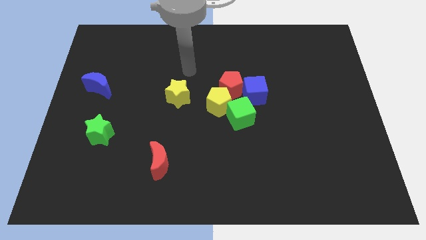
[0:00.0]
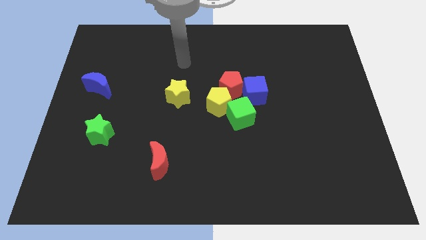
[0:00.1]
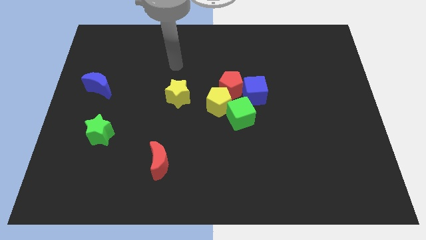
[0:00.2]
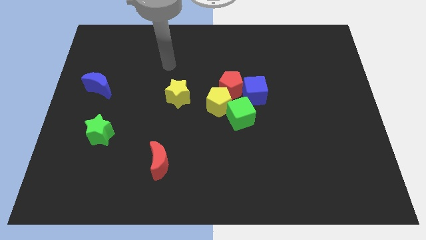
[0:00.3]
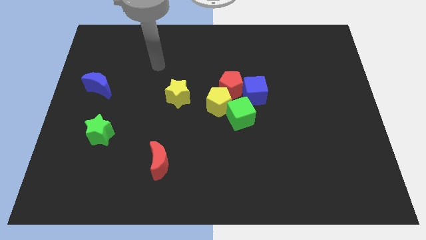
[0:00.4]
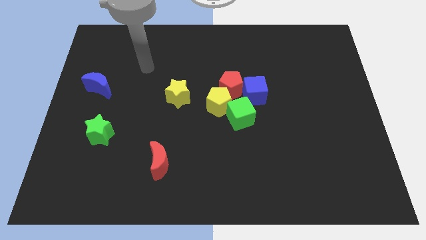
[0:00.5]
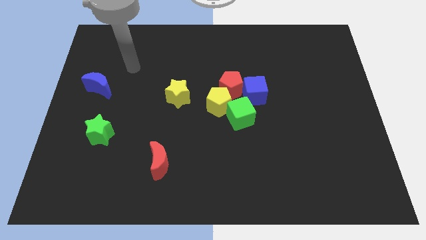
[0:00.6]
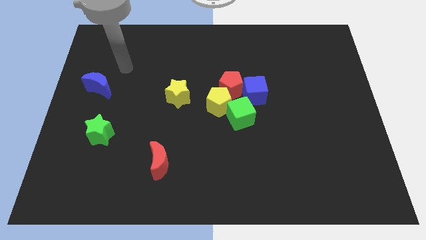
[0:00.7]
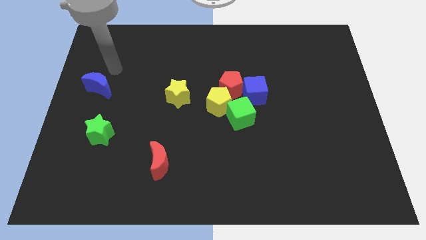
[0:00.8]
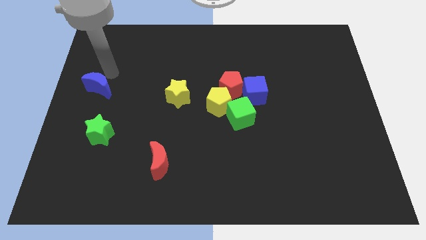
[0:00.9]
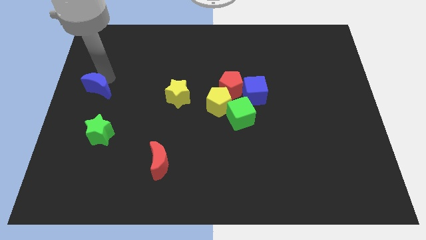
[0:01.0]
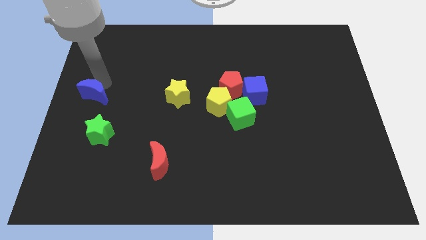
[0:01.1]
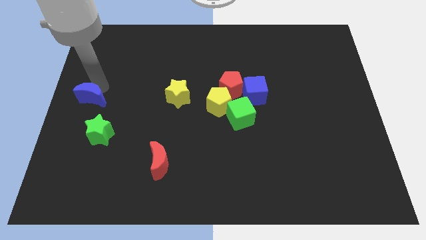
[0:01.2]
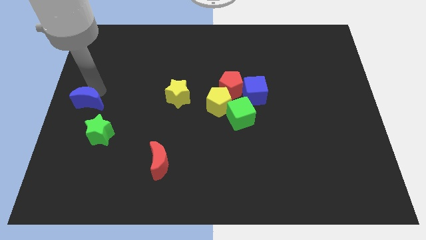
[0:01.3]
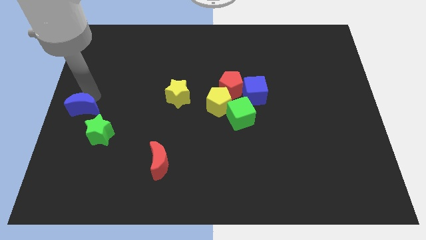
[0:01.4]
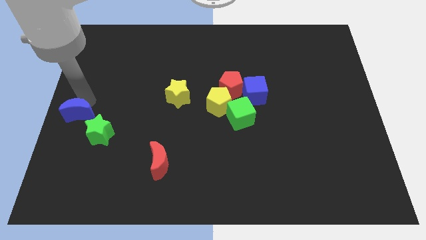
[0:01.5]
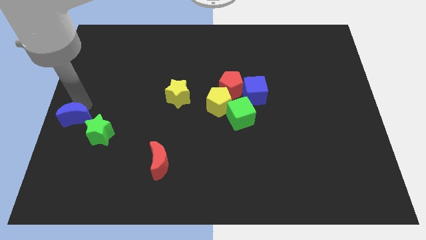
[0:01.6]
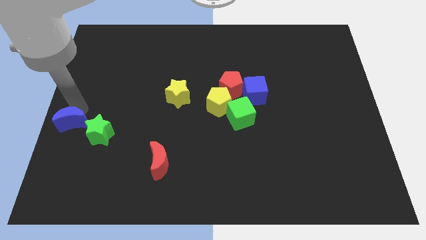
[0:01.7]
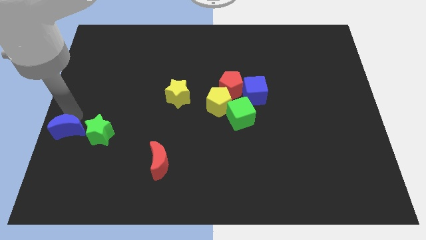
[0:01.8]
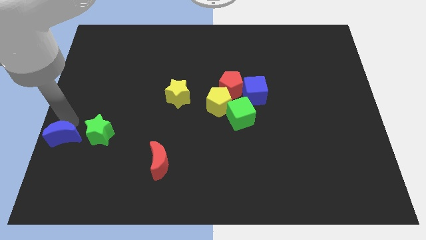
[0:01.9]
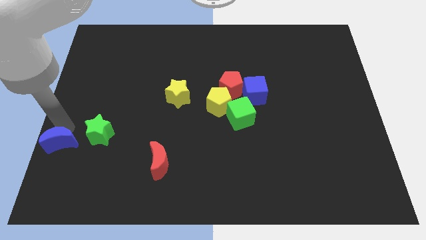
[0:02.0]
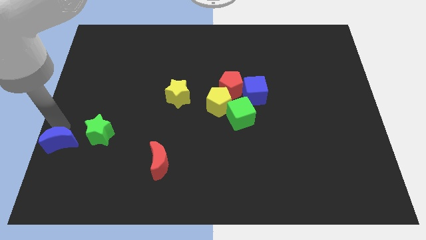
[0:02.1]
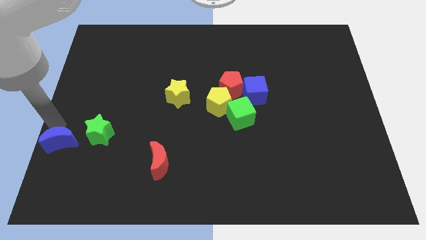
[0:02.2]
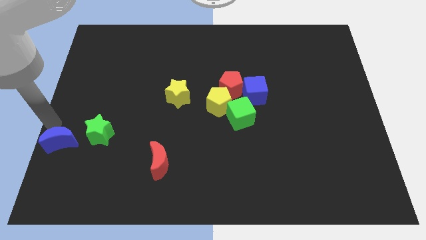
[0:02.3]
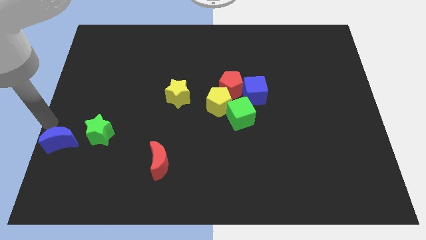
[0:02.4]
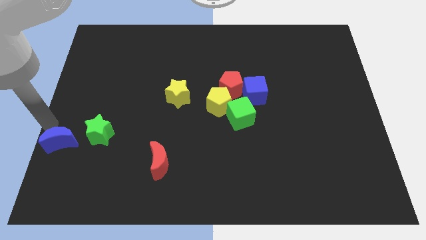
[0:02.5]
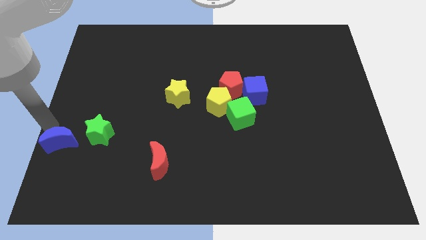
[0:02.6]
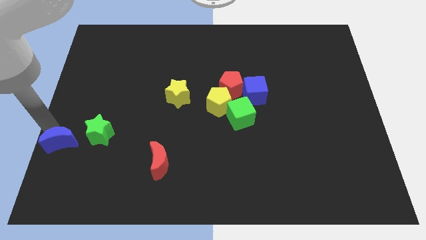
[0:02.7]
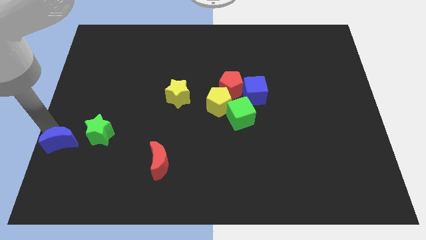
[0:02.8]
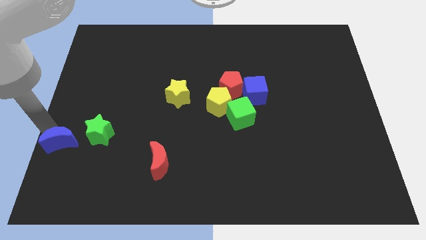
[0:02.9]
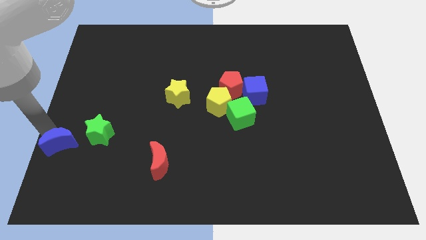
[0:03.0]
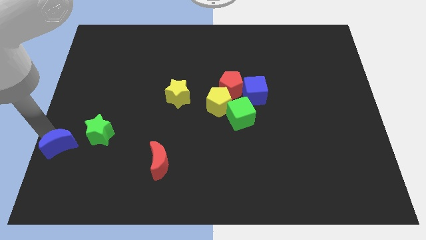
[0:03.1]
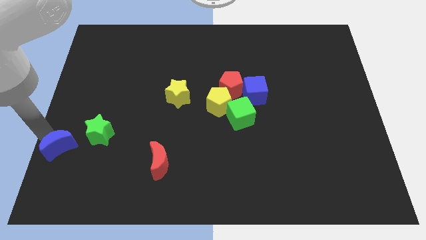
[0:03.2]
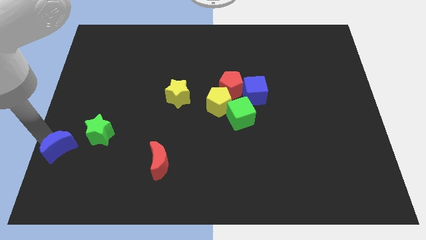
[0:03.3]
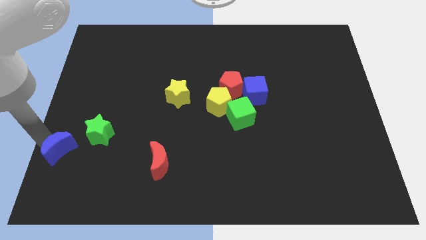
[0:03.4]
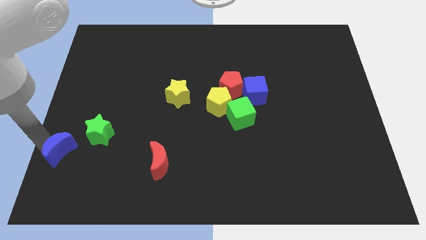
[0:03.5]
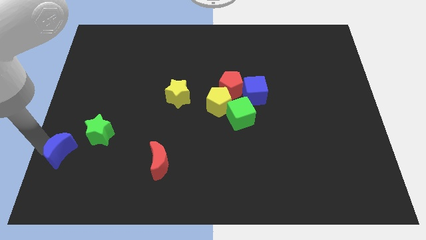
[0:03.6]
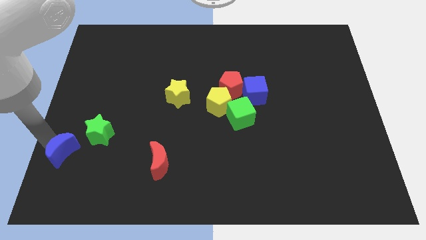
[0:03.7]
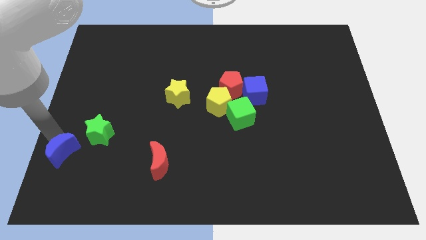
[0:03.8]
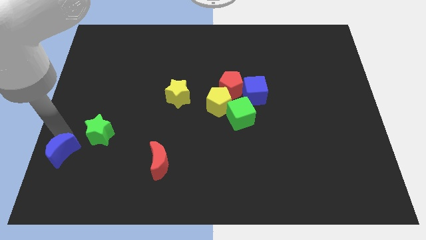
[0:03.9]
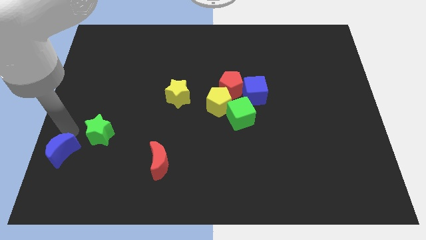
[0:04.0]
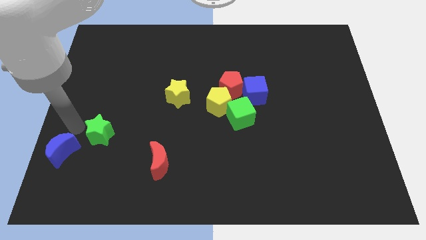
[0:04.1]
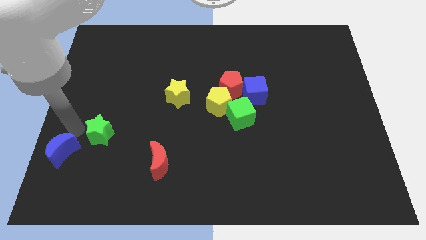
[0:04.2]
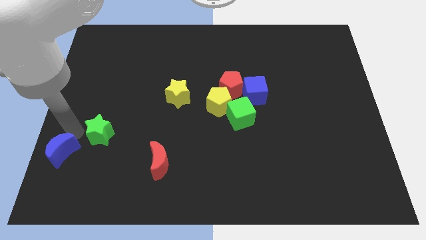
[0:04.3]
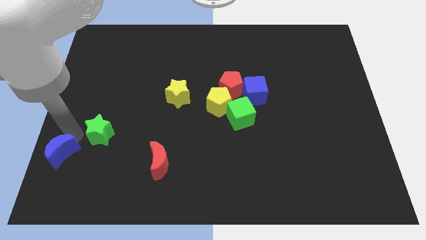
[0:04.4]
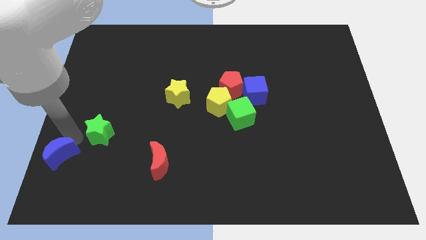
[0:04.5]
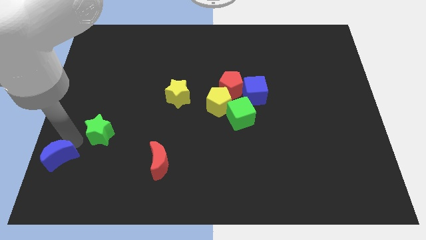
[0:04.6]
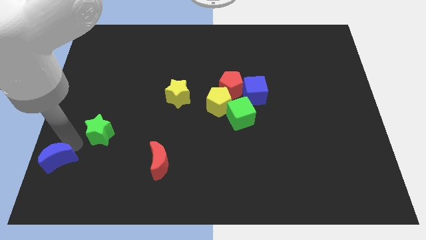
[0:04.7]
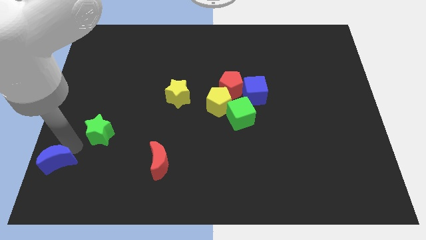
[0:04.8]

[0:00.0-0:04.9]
move the blue moon to the lower left corner

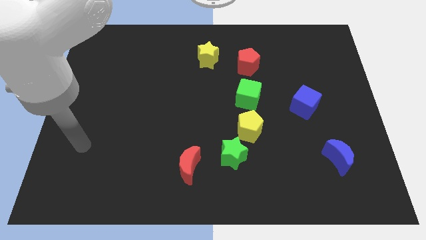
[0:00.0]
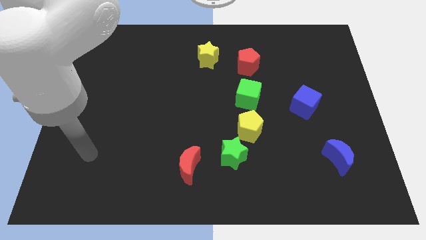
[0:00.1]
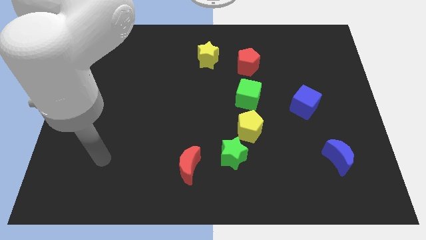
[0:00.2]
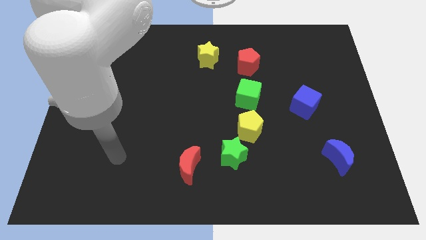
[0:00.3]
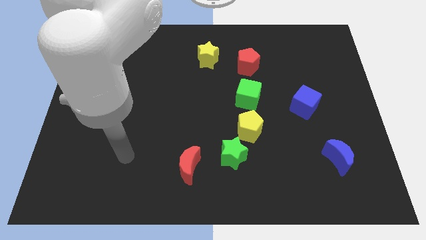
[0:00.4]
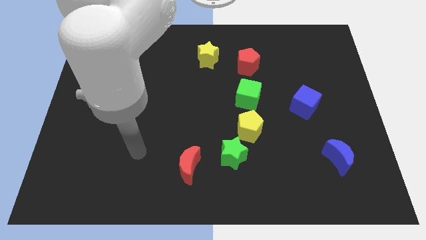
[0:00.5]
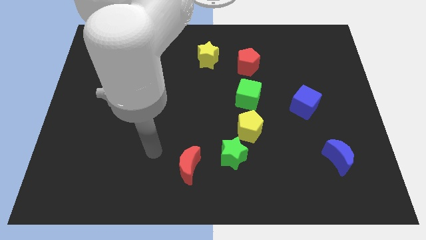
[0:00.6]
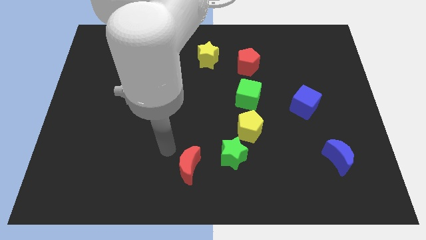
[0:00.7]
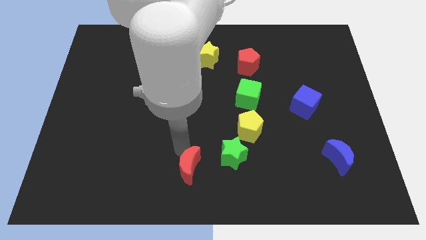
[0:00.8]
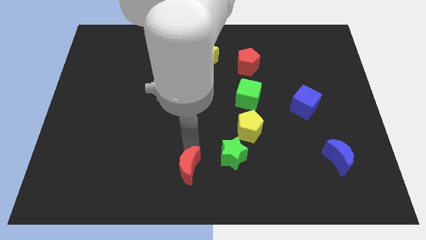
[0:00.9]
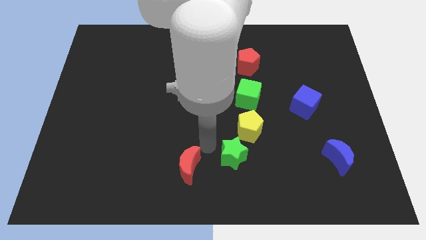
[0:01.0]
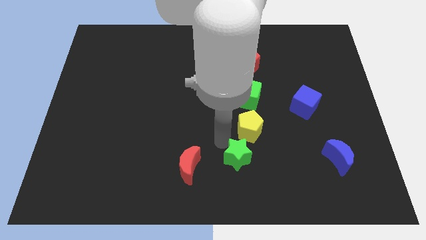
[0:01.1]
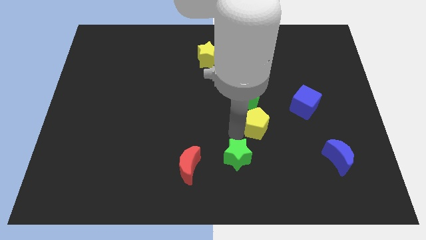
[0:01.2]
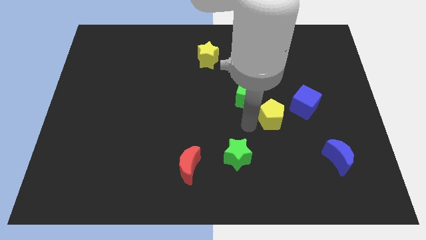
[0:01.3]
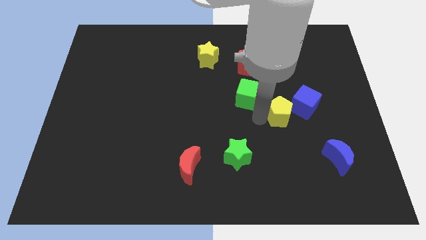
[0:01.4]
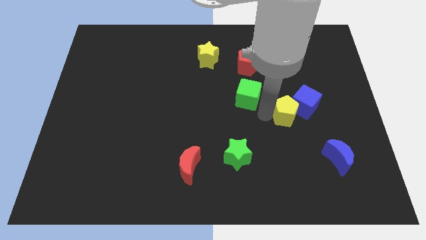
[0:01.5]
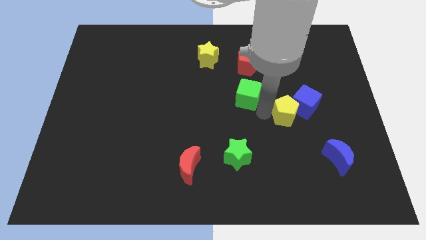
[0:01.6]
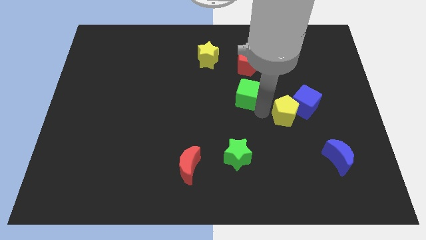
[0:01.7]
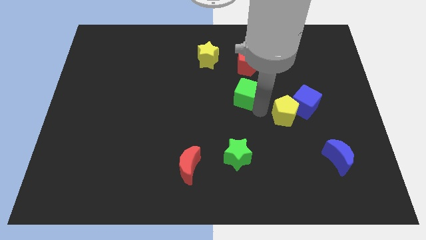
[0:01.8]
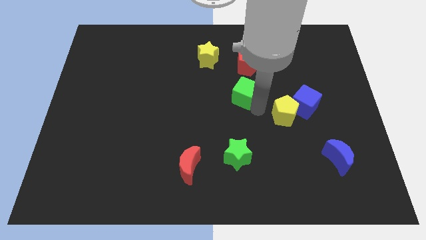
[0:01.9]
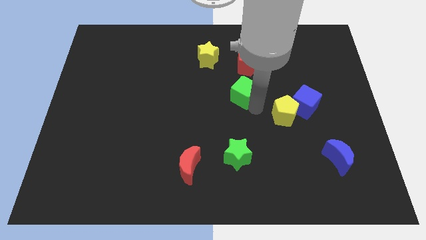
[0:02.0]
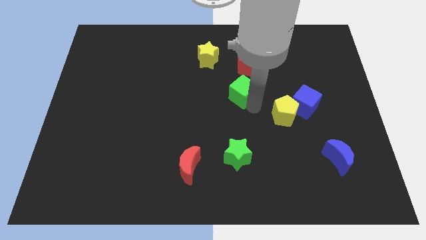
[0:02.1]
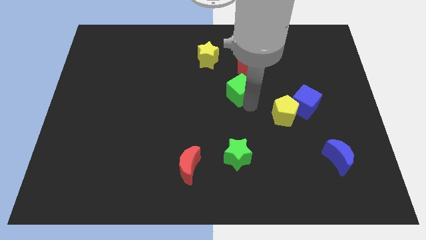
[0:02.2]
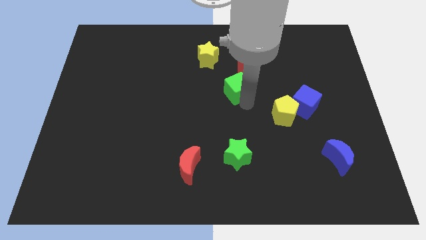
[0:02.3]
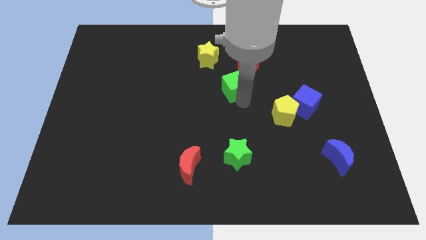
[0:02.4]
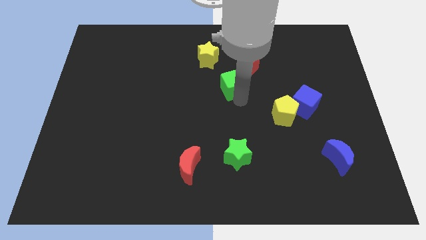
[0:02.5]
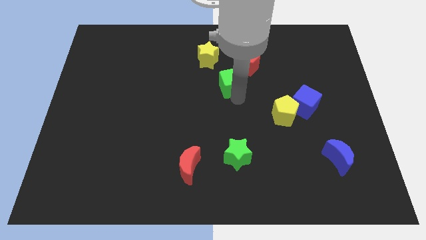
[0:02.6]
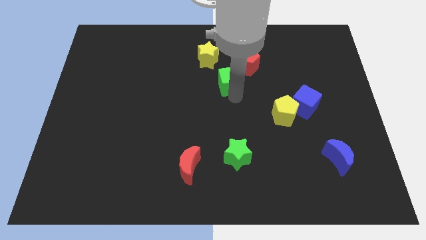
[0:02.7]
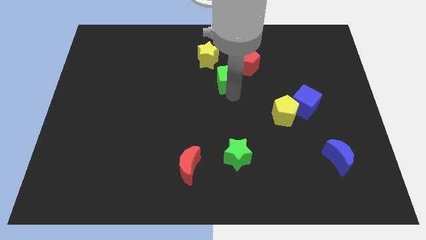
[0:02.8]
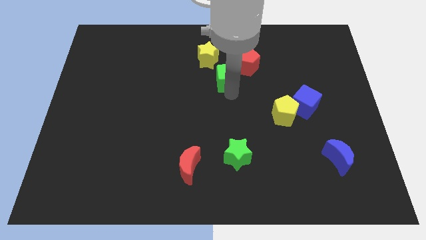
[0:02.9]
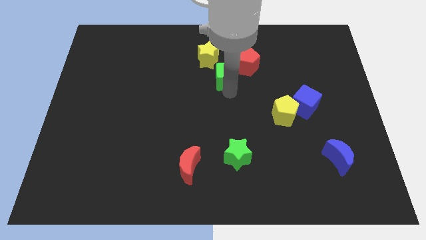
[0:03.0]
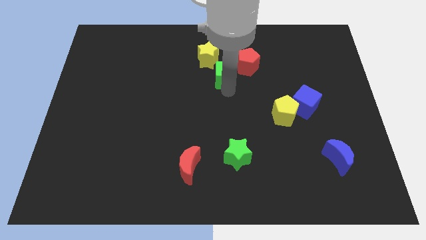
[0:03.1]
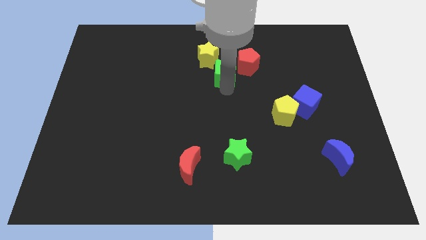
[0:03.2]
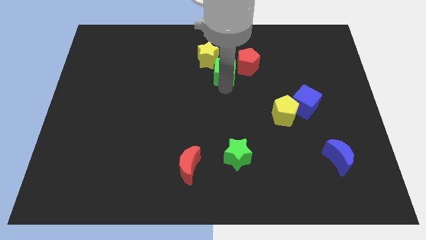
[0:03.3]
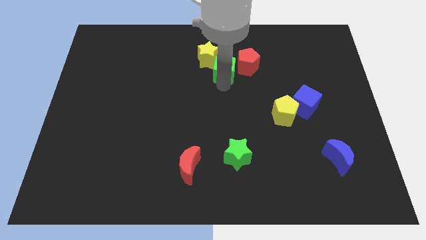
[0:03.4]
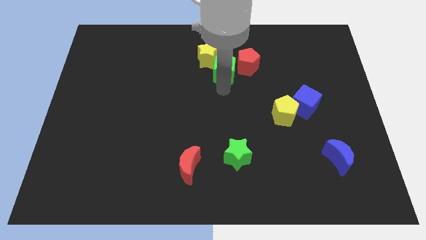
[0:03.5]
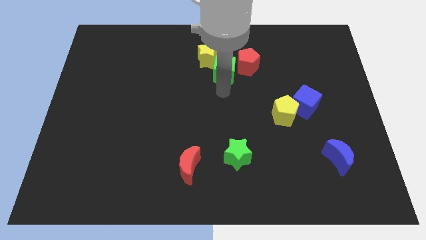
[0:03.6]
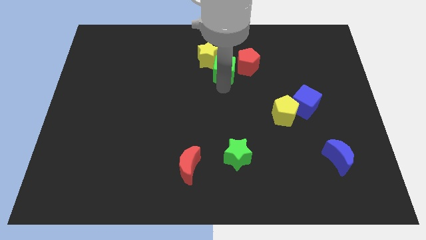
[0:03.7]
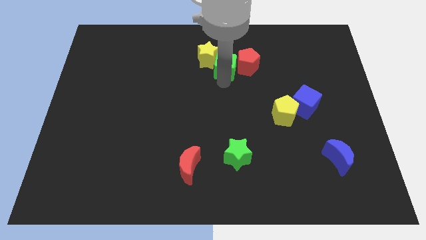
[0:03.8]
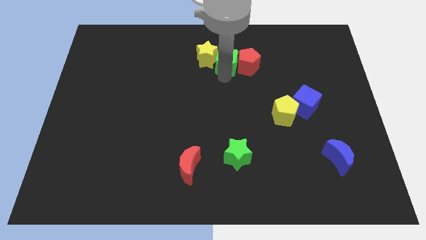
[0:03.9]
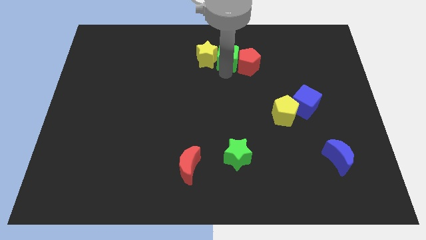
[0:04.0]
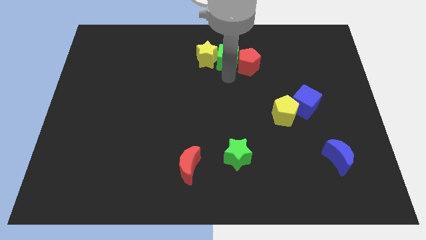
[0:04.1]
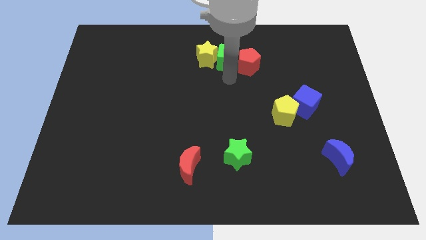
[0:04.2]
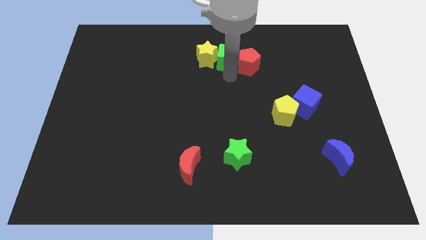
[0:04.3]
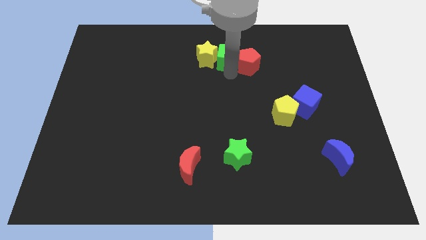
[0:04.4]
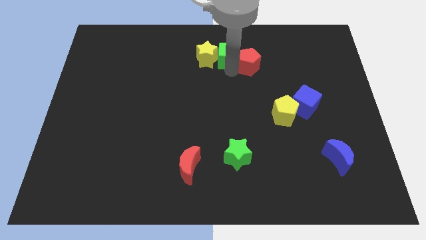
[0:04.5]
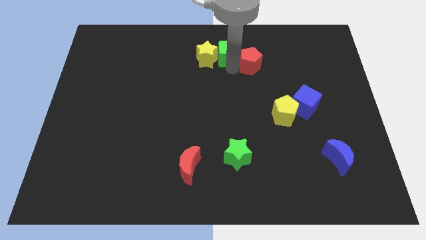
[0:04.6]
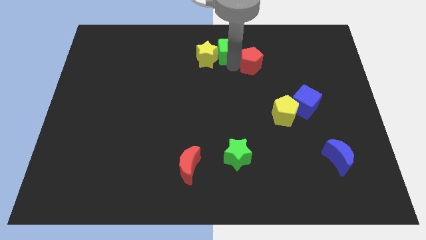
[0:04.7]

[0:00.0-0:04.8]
put the green cube to the top side
